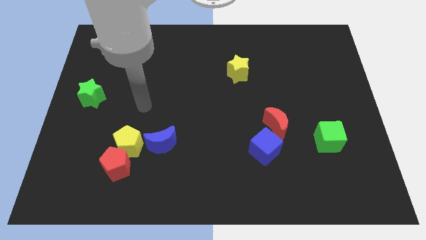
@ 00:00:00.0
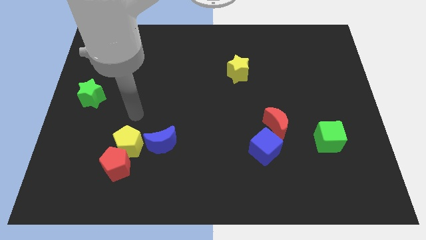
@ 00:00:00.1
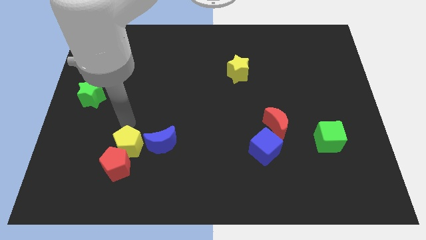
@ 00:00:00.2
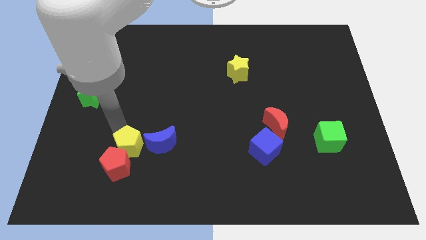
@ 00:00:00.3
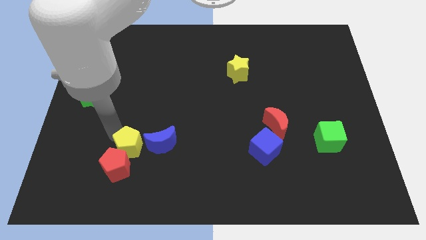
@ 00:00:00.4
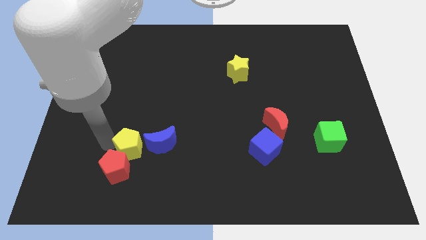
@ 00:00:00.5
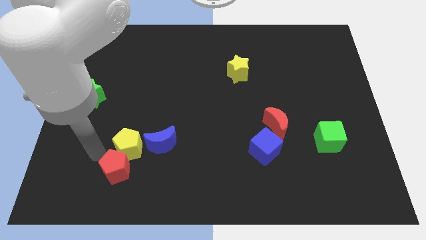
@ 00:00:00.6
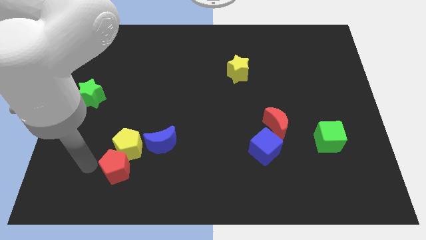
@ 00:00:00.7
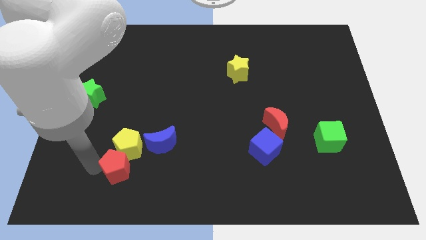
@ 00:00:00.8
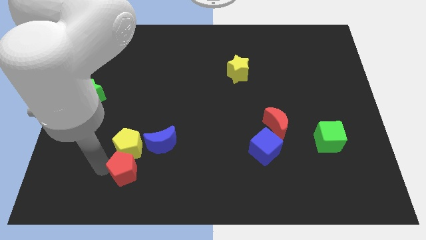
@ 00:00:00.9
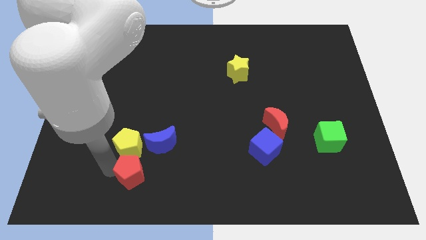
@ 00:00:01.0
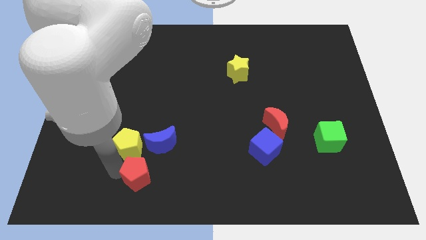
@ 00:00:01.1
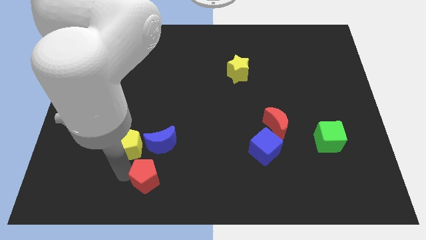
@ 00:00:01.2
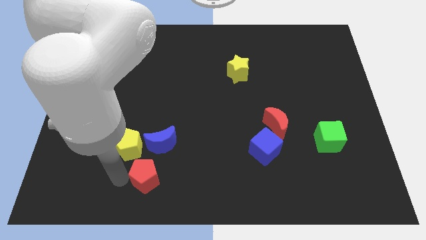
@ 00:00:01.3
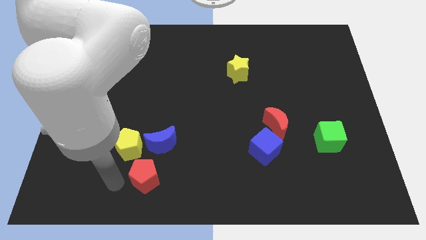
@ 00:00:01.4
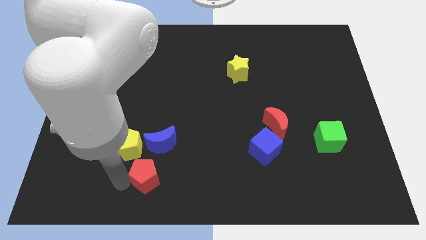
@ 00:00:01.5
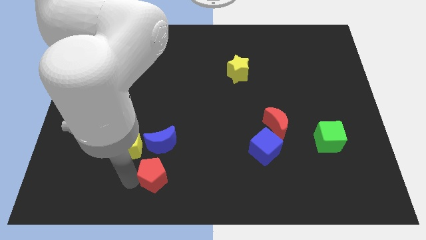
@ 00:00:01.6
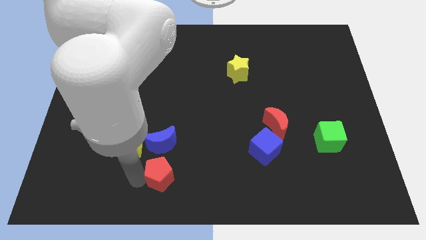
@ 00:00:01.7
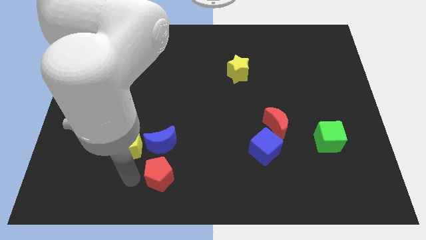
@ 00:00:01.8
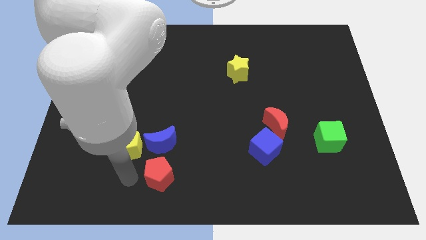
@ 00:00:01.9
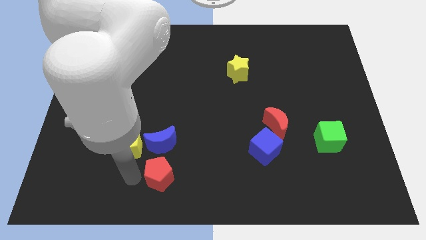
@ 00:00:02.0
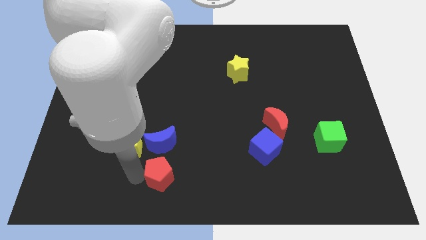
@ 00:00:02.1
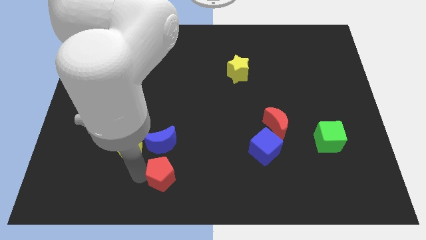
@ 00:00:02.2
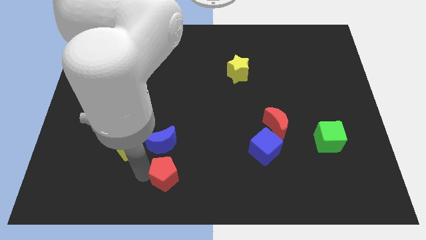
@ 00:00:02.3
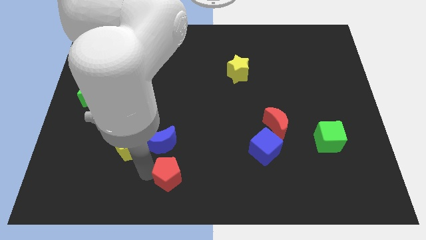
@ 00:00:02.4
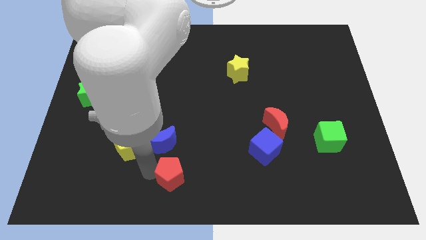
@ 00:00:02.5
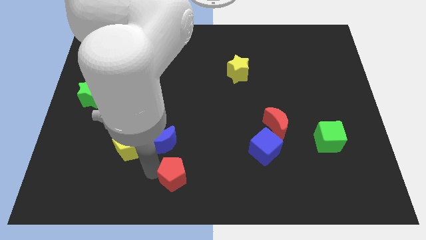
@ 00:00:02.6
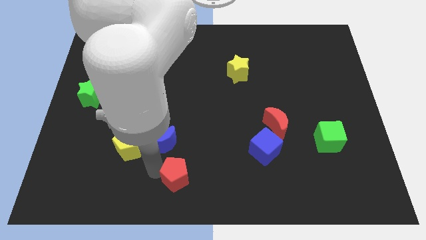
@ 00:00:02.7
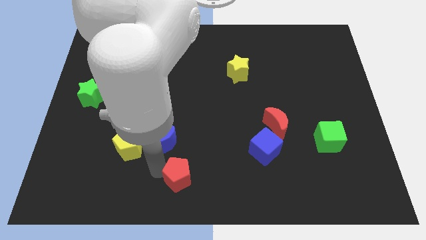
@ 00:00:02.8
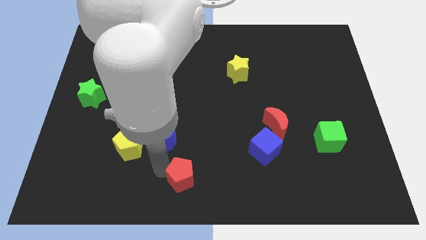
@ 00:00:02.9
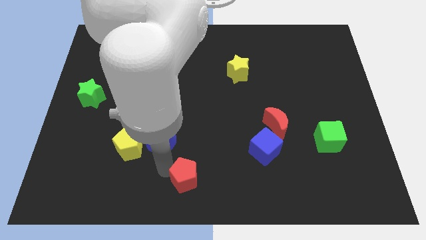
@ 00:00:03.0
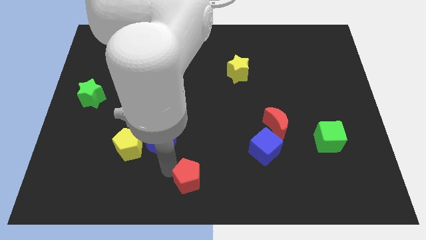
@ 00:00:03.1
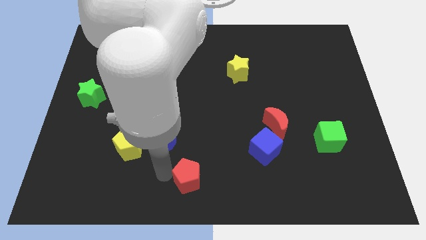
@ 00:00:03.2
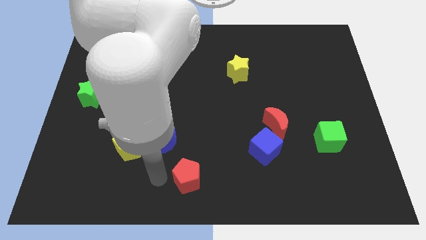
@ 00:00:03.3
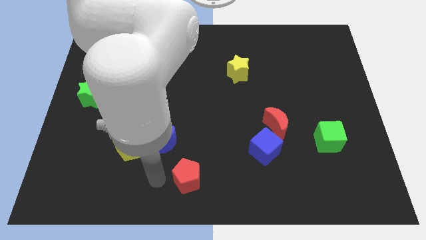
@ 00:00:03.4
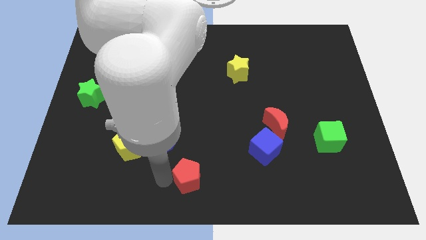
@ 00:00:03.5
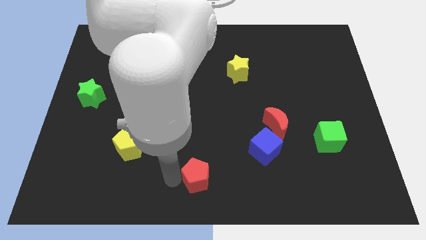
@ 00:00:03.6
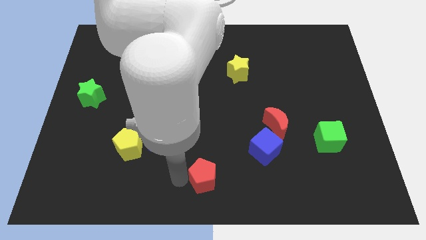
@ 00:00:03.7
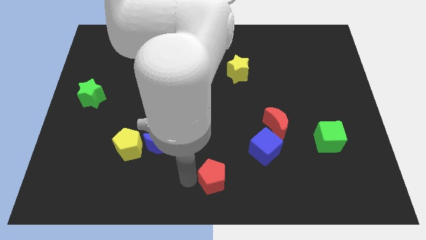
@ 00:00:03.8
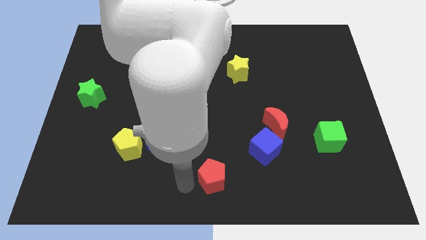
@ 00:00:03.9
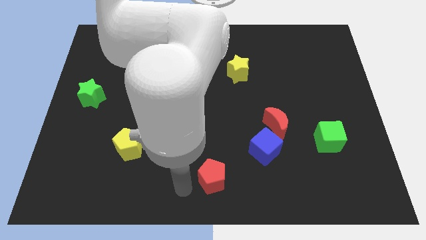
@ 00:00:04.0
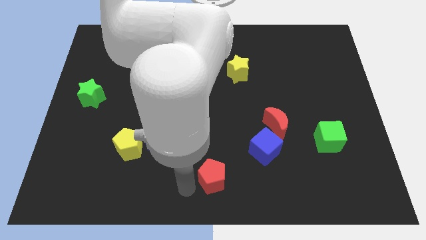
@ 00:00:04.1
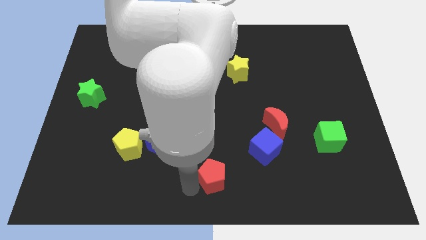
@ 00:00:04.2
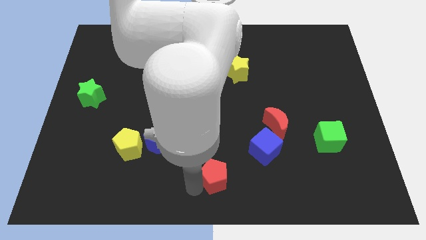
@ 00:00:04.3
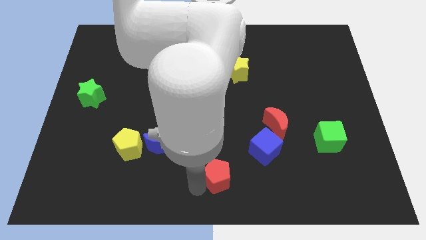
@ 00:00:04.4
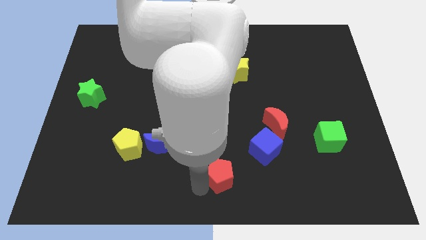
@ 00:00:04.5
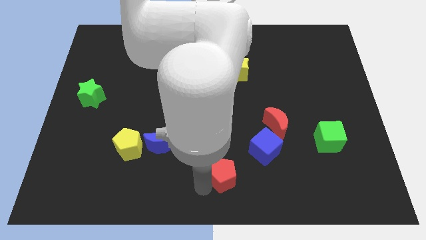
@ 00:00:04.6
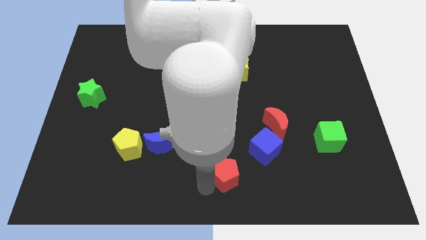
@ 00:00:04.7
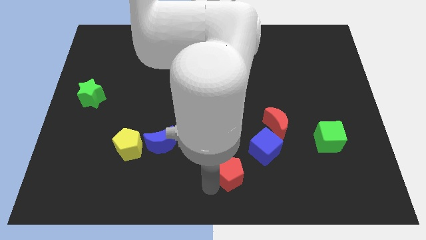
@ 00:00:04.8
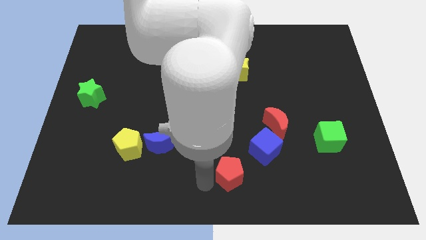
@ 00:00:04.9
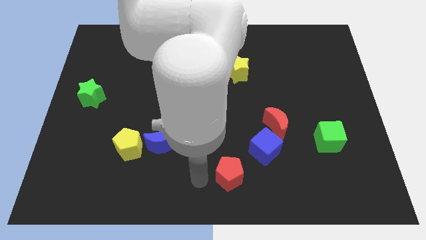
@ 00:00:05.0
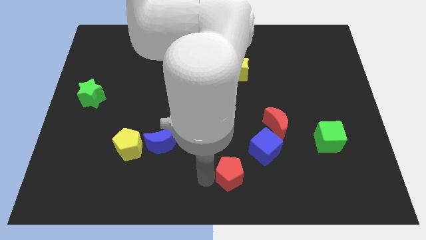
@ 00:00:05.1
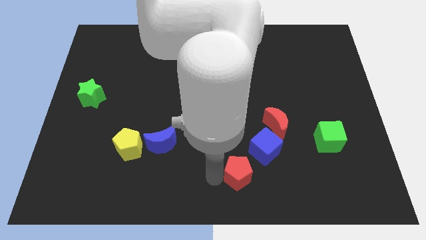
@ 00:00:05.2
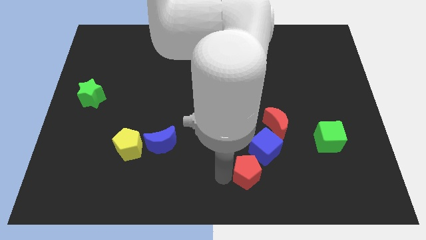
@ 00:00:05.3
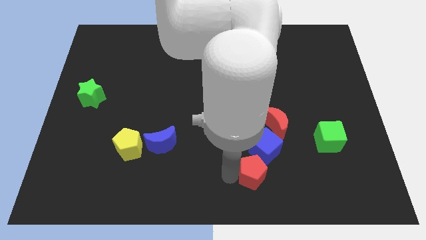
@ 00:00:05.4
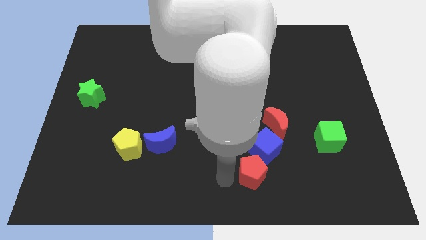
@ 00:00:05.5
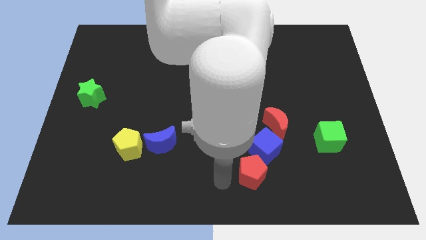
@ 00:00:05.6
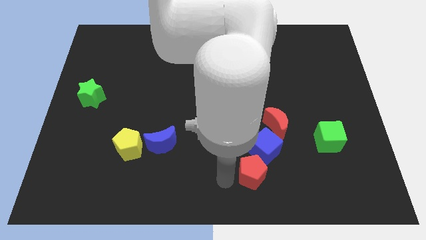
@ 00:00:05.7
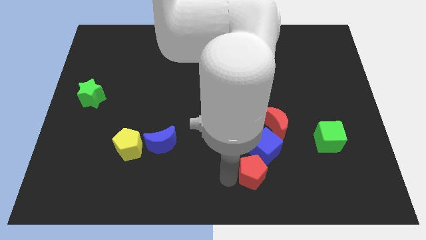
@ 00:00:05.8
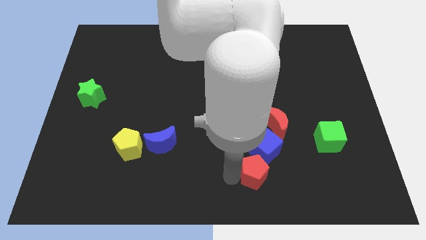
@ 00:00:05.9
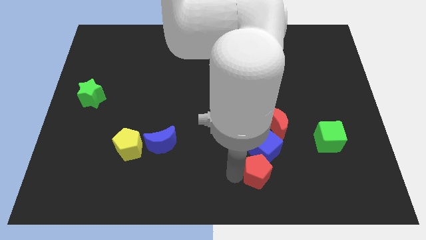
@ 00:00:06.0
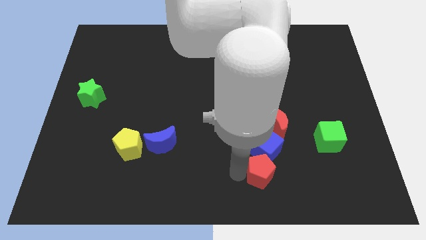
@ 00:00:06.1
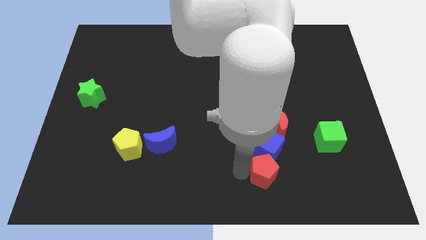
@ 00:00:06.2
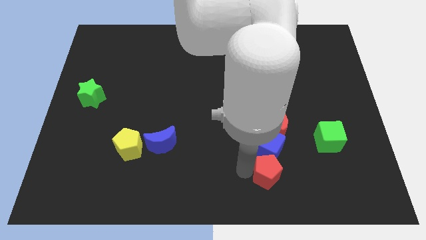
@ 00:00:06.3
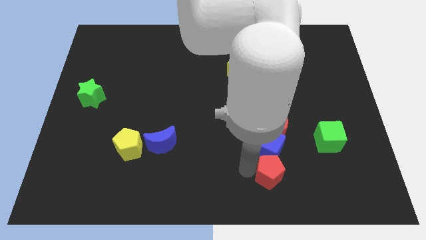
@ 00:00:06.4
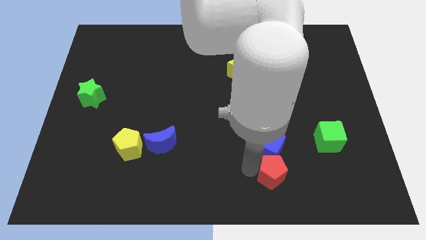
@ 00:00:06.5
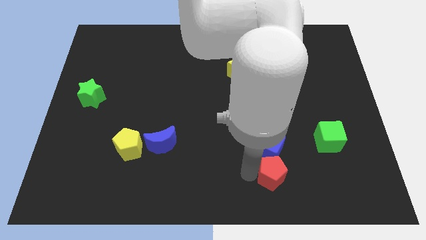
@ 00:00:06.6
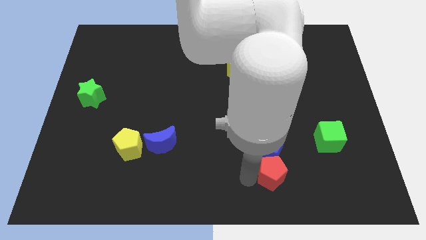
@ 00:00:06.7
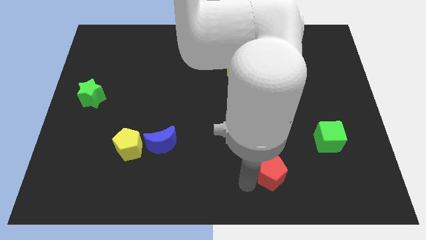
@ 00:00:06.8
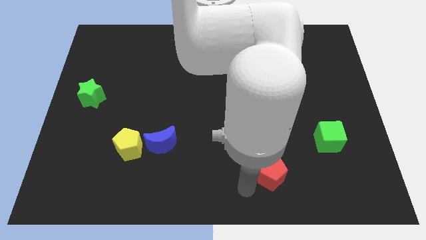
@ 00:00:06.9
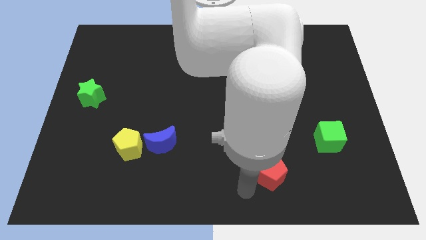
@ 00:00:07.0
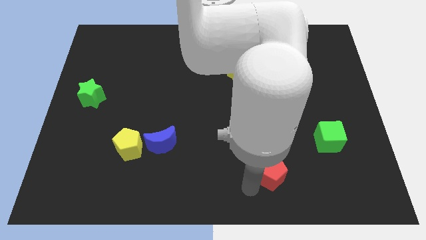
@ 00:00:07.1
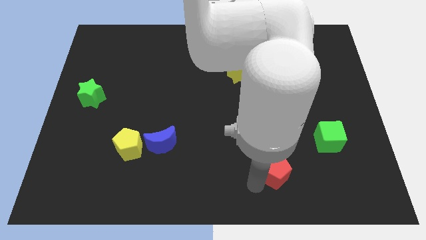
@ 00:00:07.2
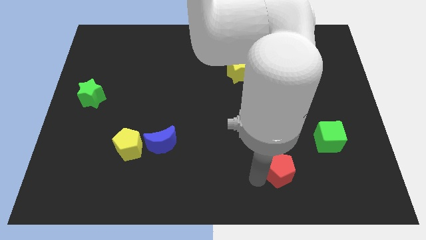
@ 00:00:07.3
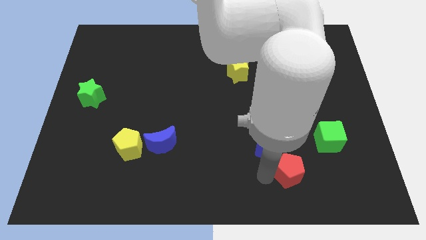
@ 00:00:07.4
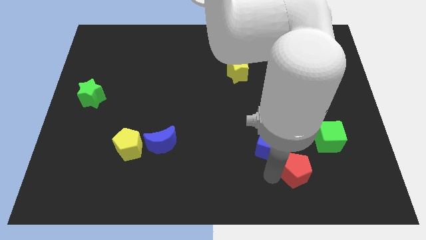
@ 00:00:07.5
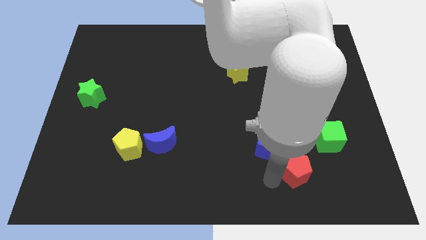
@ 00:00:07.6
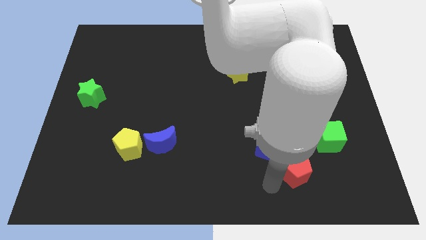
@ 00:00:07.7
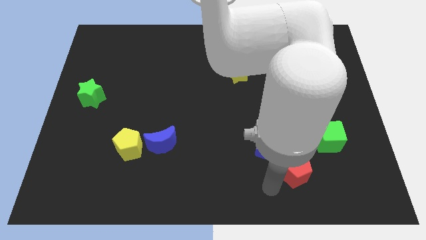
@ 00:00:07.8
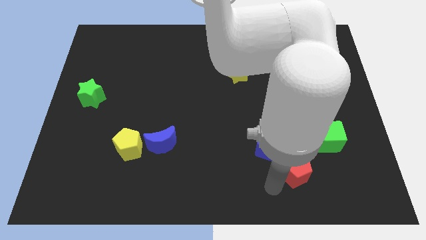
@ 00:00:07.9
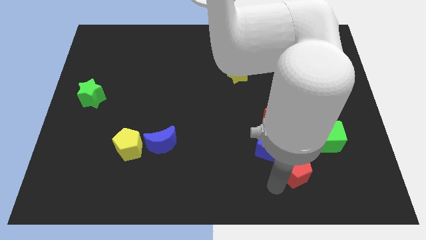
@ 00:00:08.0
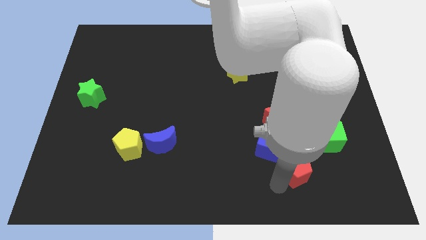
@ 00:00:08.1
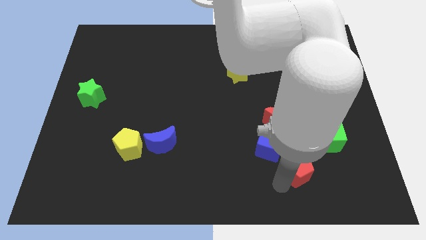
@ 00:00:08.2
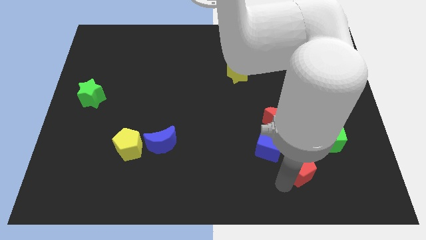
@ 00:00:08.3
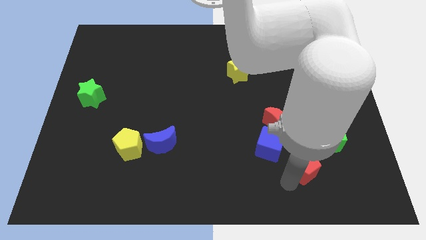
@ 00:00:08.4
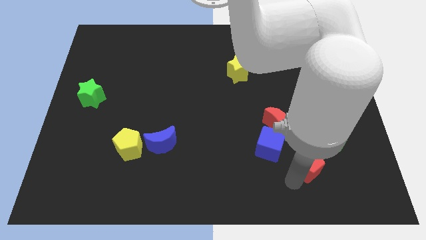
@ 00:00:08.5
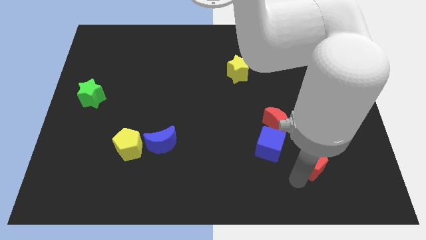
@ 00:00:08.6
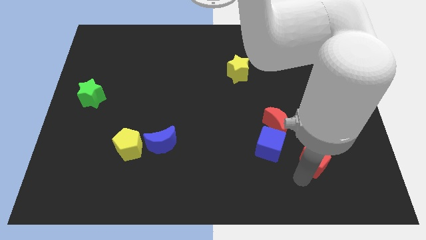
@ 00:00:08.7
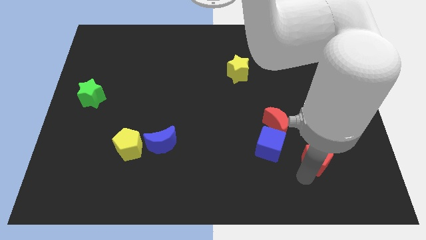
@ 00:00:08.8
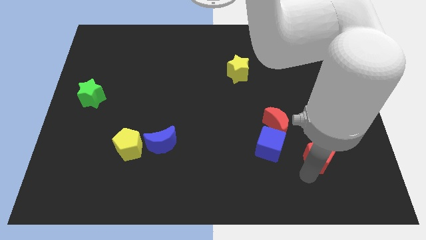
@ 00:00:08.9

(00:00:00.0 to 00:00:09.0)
put the red pentagon next to the green cube
